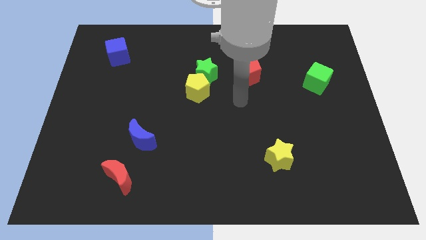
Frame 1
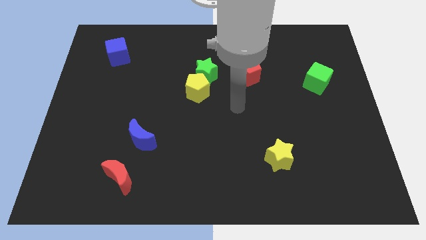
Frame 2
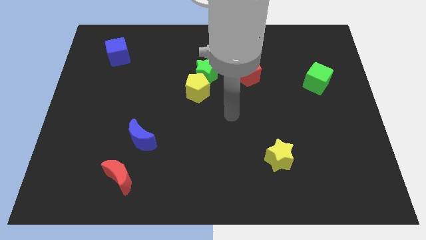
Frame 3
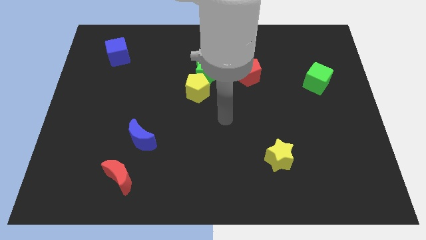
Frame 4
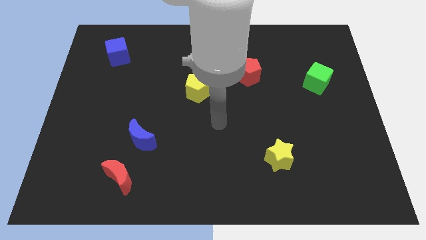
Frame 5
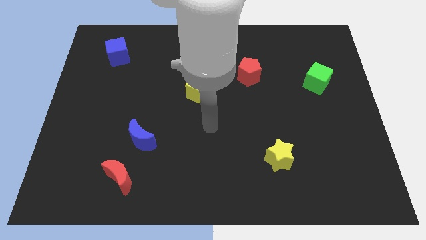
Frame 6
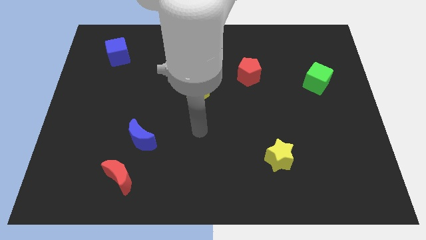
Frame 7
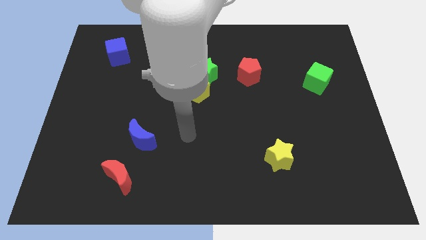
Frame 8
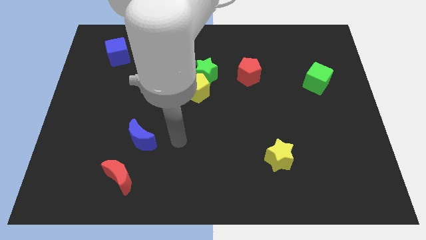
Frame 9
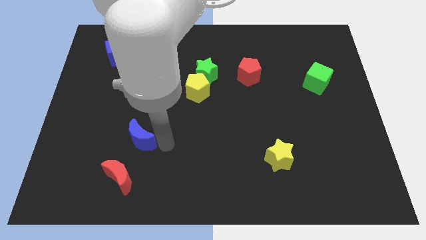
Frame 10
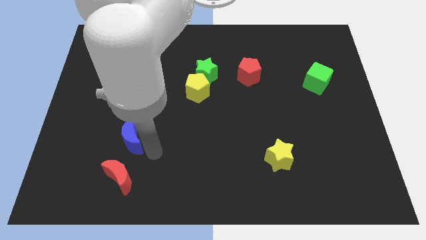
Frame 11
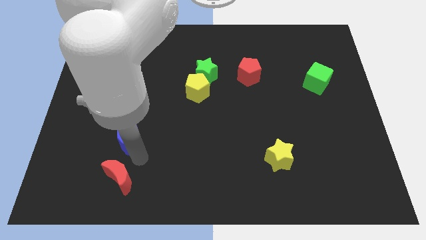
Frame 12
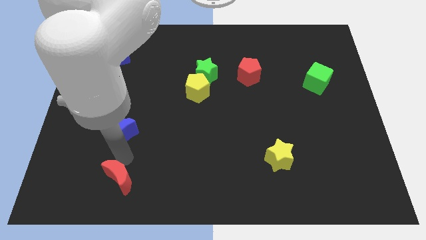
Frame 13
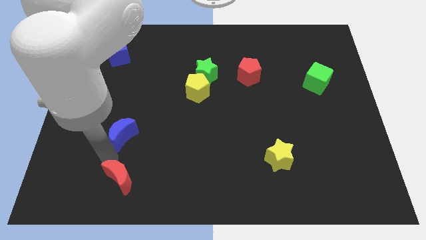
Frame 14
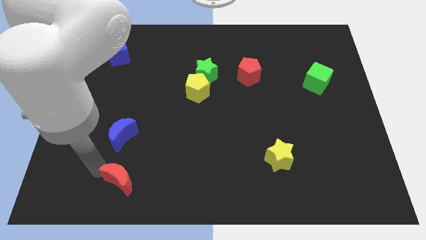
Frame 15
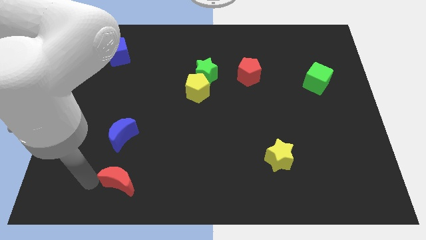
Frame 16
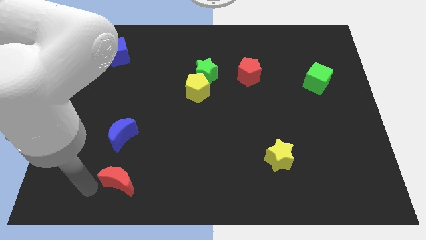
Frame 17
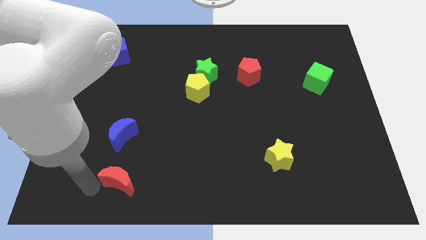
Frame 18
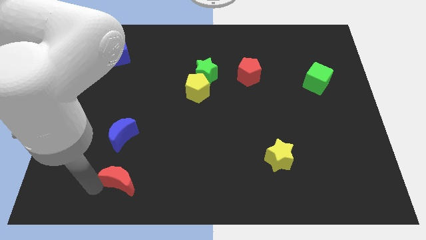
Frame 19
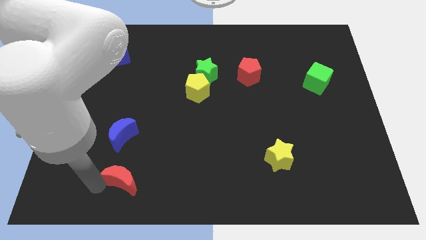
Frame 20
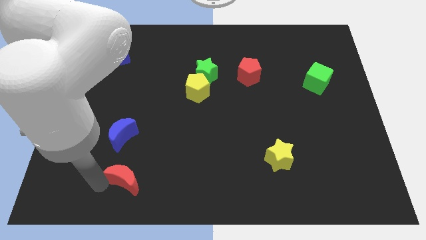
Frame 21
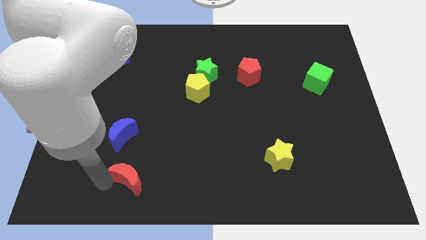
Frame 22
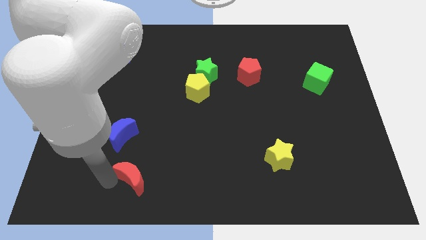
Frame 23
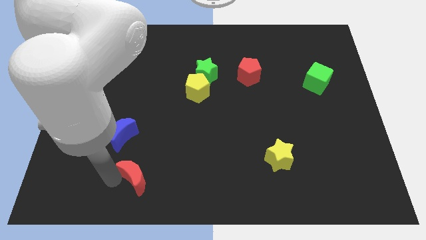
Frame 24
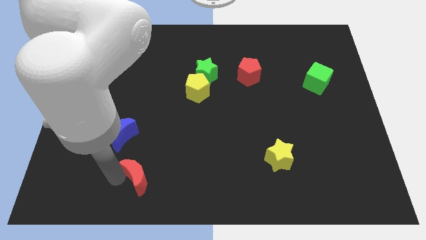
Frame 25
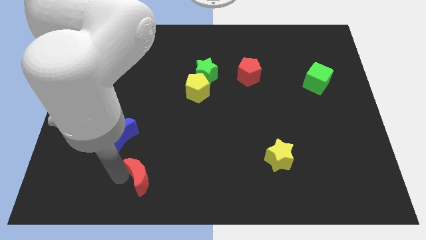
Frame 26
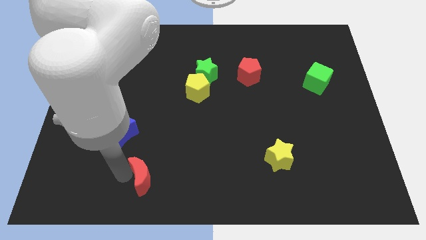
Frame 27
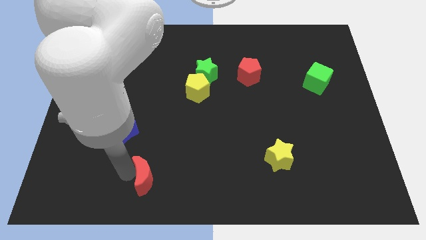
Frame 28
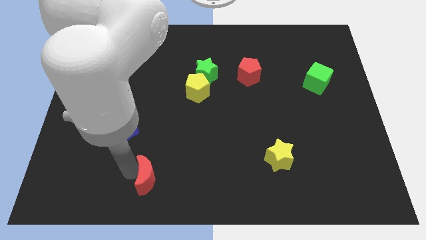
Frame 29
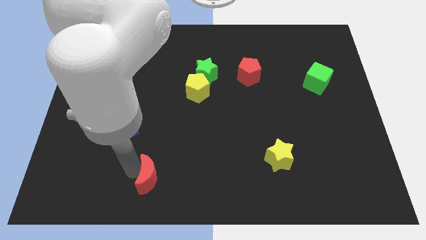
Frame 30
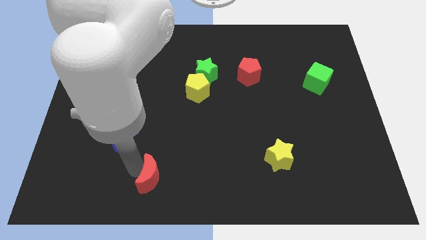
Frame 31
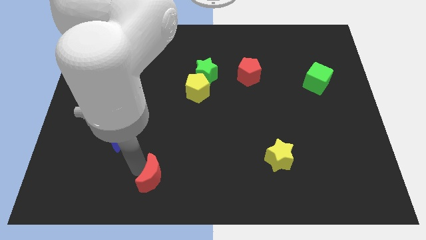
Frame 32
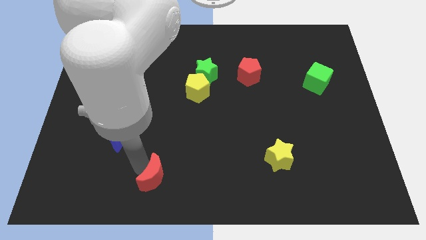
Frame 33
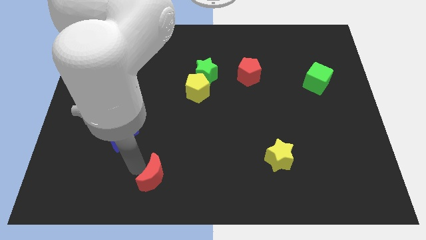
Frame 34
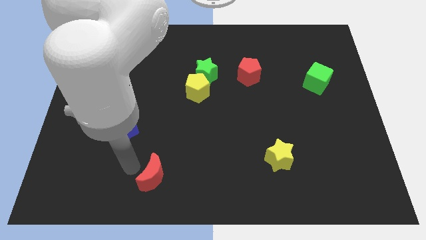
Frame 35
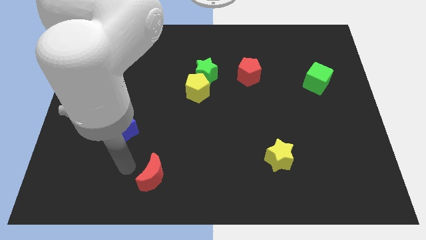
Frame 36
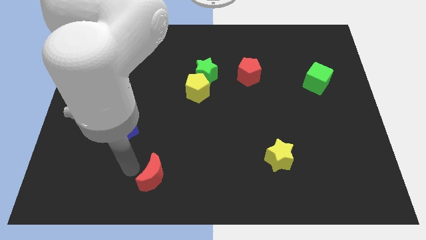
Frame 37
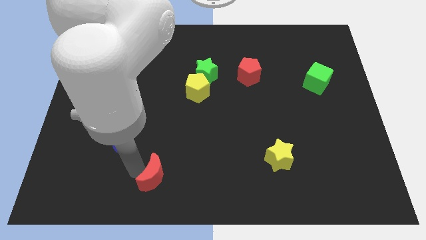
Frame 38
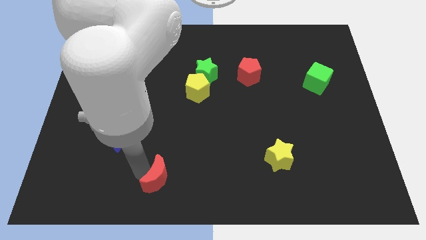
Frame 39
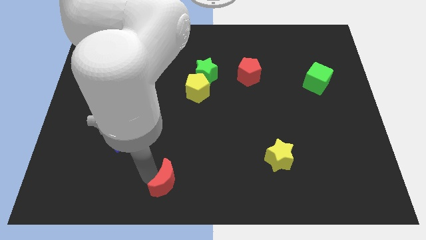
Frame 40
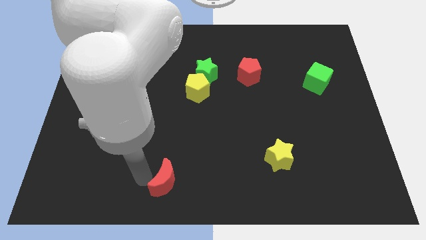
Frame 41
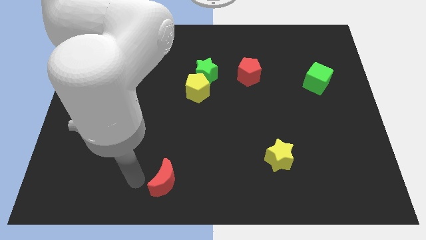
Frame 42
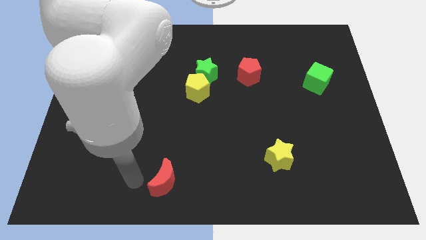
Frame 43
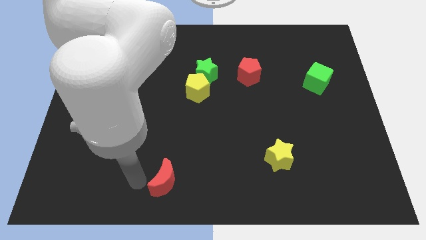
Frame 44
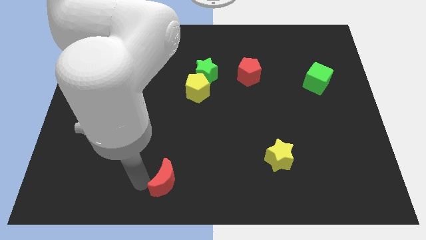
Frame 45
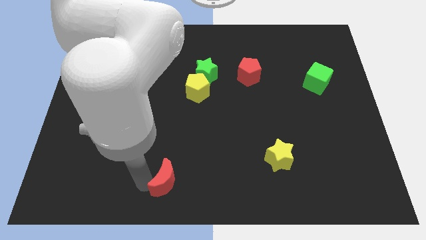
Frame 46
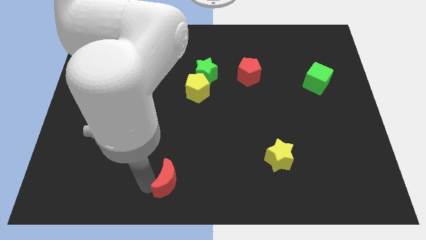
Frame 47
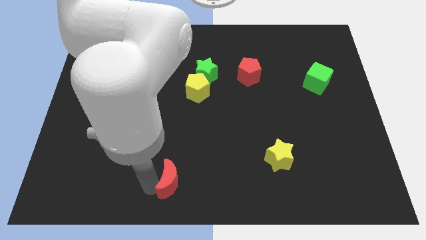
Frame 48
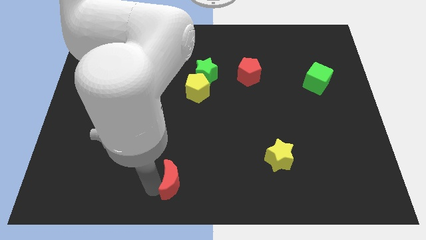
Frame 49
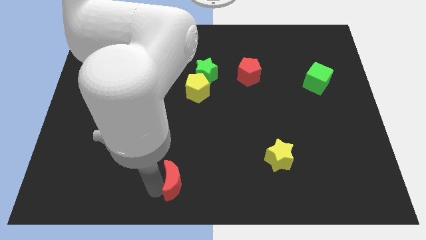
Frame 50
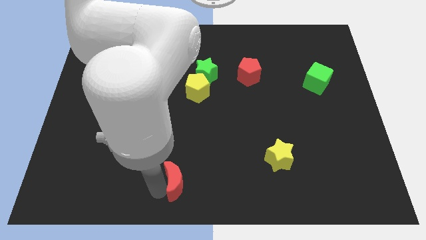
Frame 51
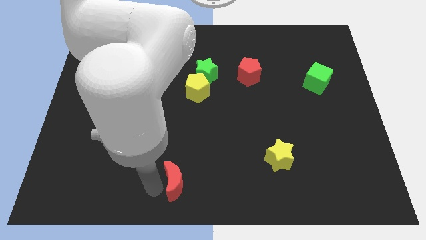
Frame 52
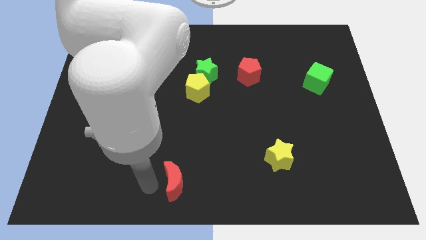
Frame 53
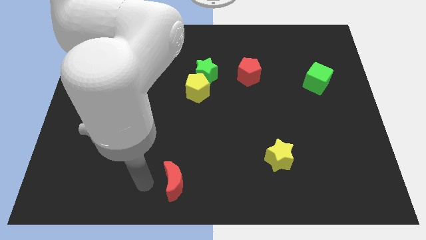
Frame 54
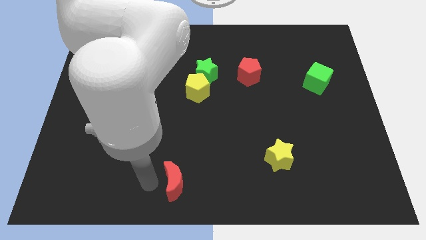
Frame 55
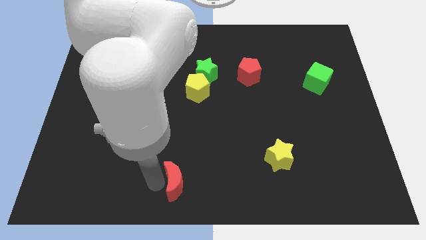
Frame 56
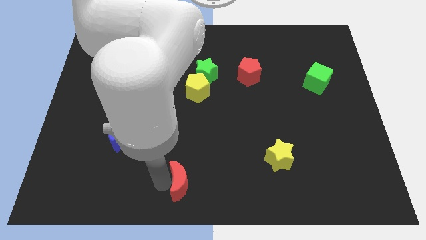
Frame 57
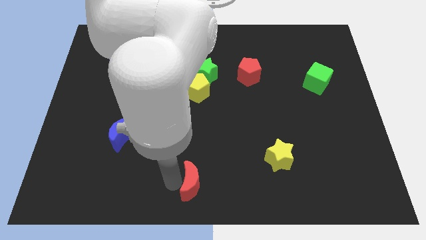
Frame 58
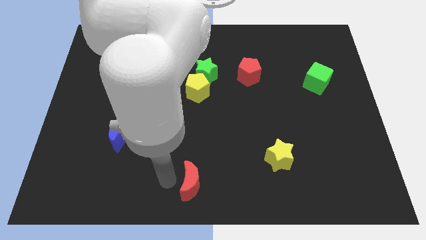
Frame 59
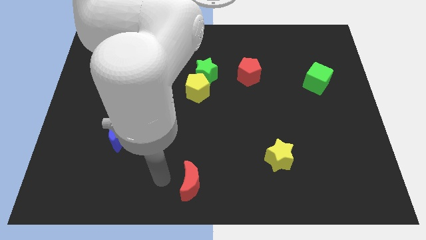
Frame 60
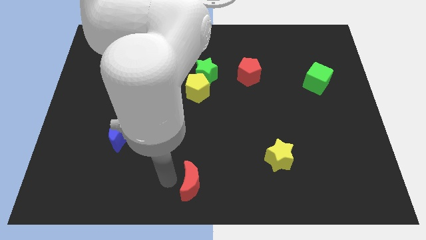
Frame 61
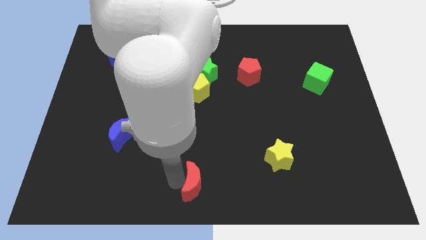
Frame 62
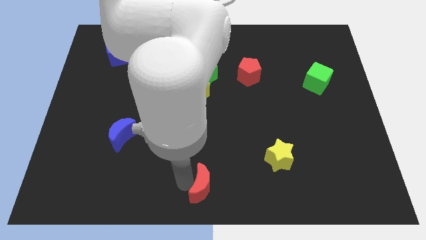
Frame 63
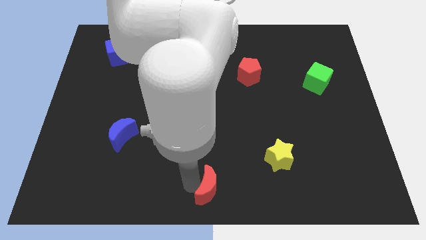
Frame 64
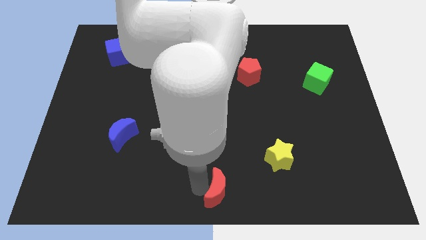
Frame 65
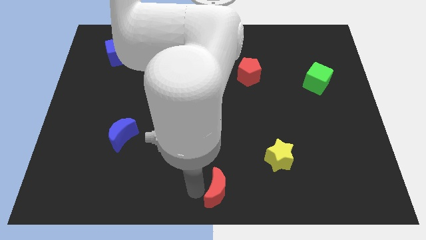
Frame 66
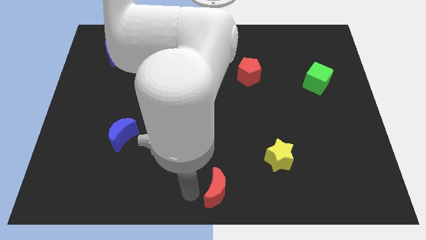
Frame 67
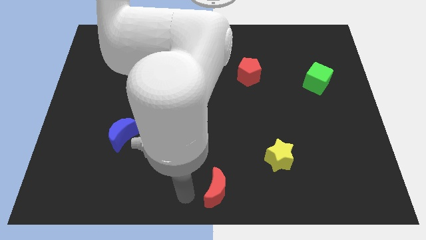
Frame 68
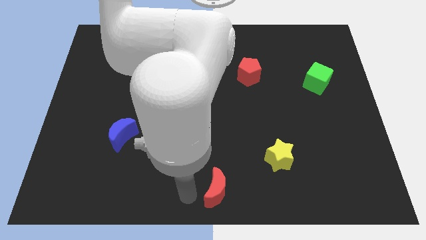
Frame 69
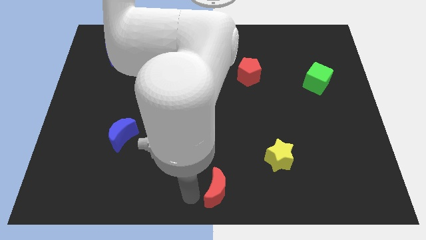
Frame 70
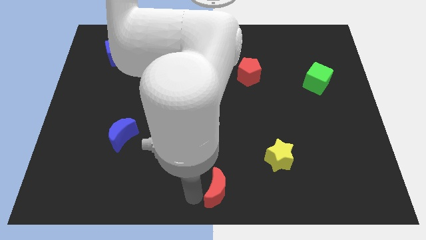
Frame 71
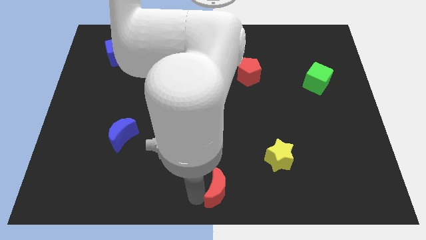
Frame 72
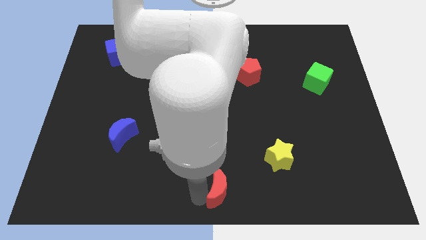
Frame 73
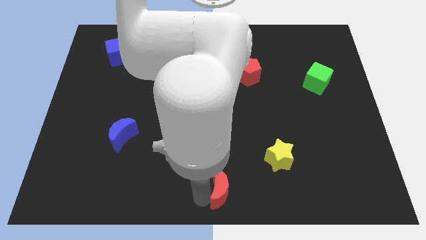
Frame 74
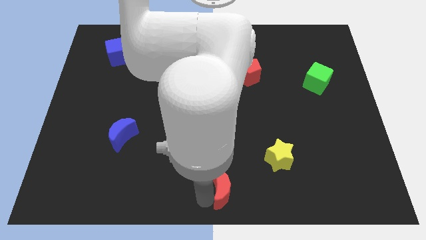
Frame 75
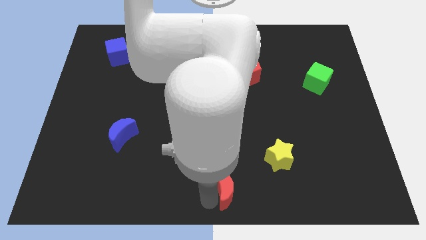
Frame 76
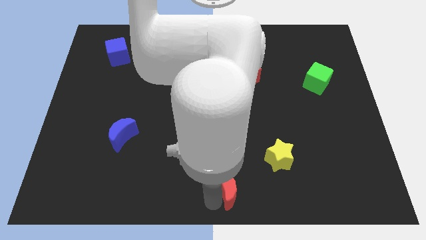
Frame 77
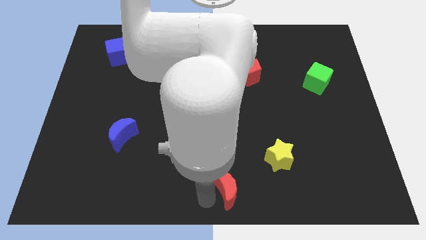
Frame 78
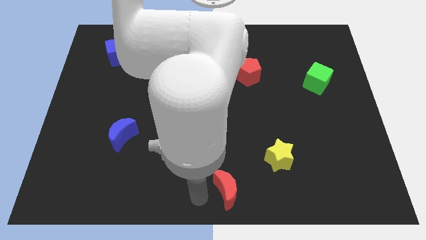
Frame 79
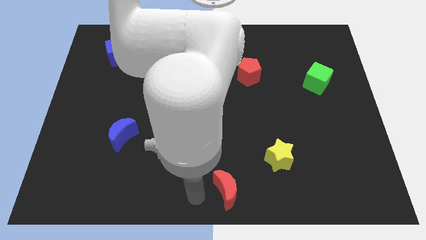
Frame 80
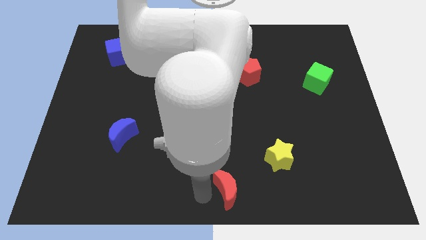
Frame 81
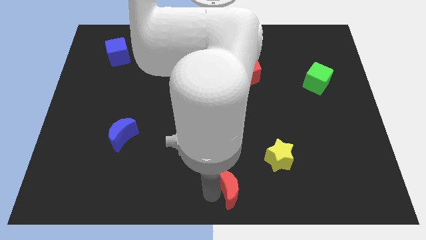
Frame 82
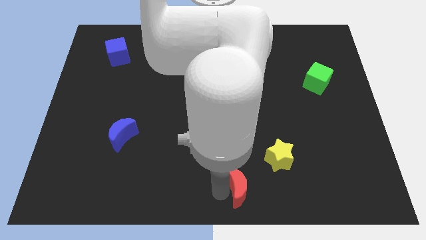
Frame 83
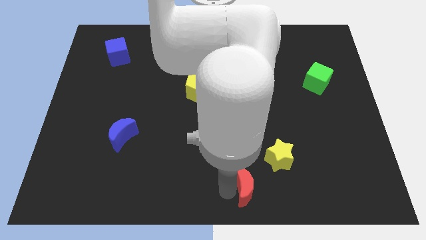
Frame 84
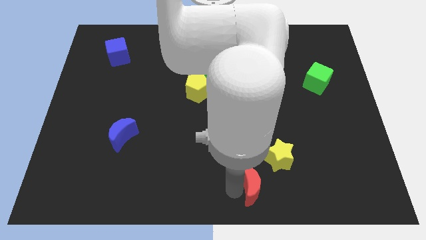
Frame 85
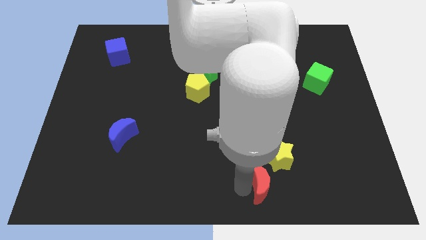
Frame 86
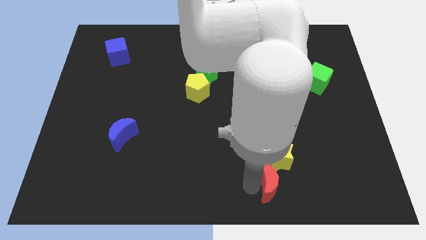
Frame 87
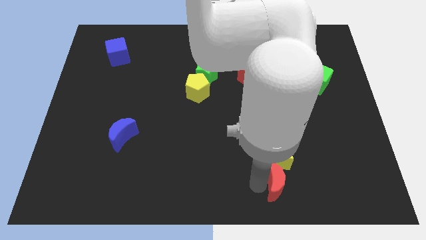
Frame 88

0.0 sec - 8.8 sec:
slide the red moon to the bottom right of the yellow star
